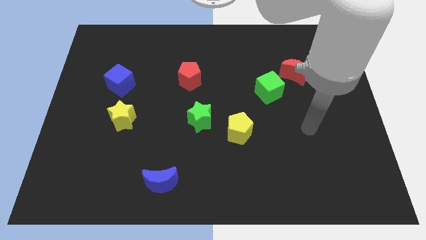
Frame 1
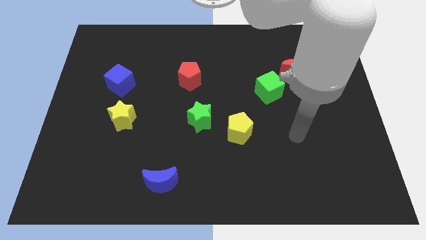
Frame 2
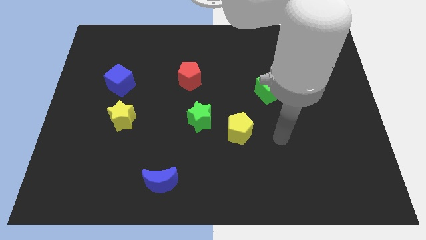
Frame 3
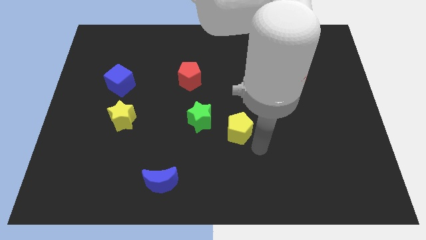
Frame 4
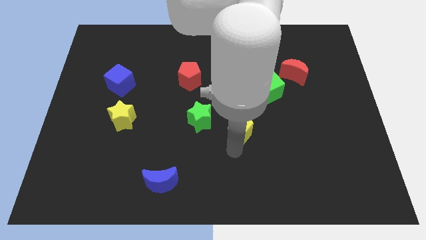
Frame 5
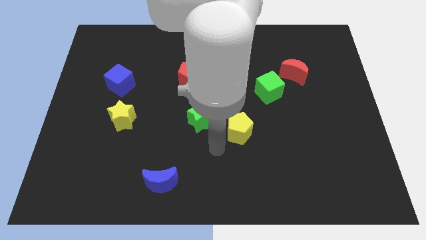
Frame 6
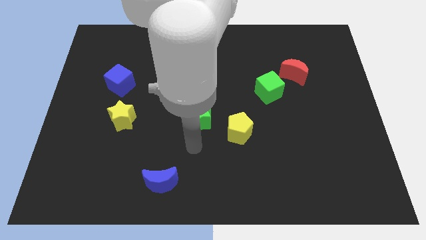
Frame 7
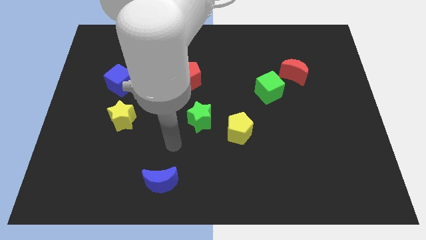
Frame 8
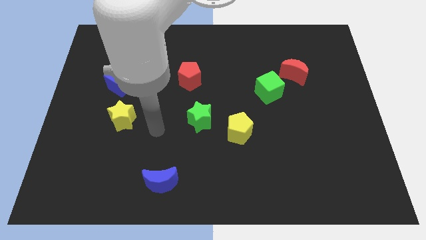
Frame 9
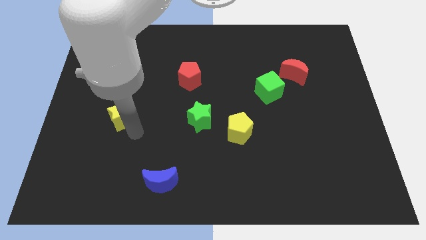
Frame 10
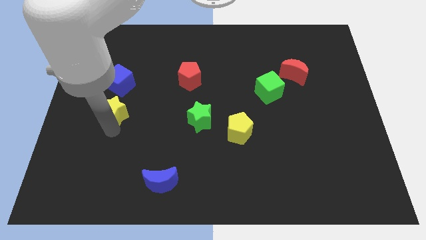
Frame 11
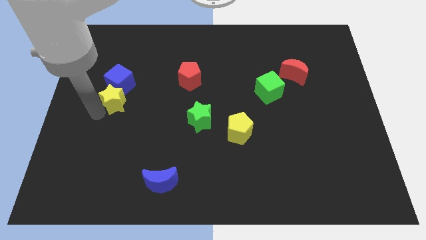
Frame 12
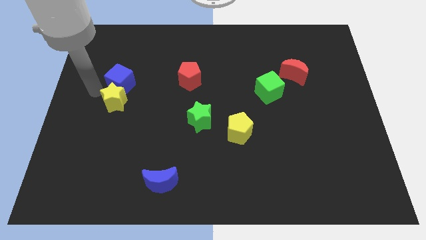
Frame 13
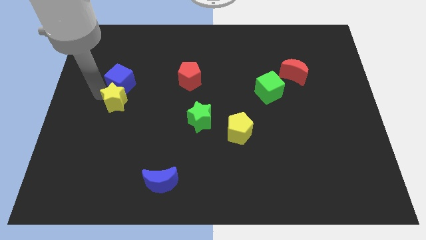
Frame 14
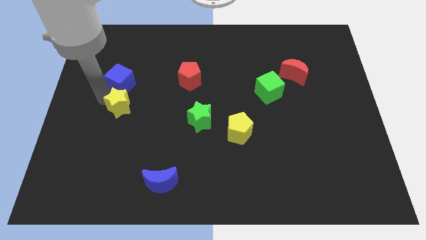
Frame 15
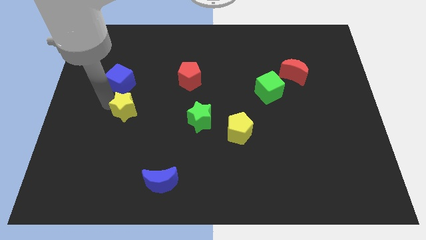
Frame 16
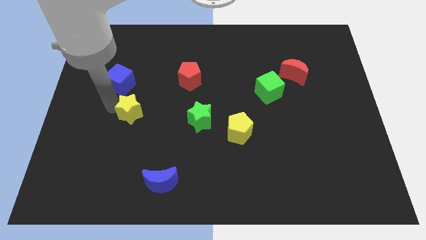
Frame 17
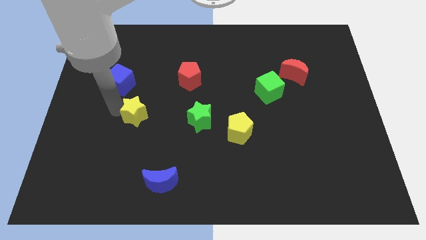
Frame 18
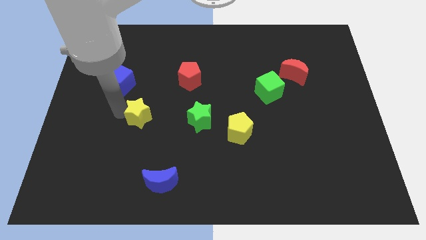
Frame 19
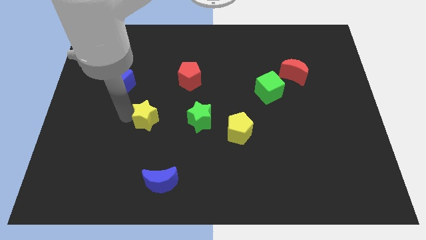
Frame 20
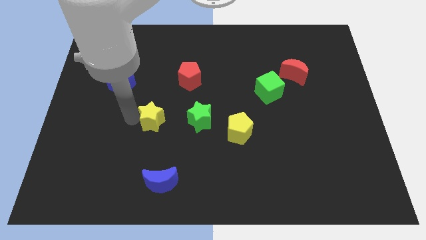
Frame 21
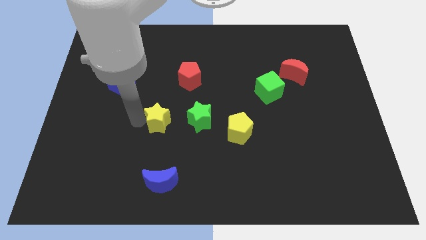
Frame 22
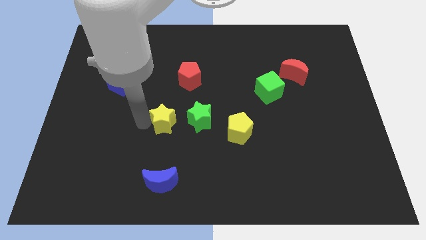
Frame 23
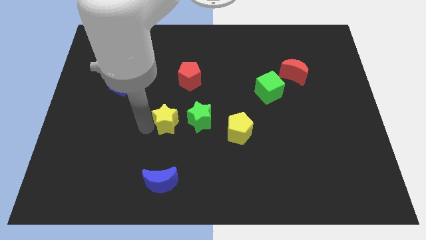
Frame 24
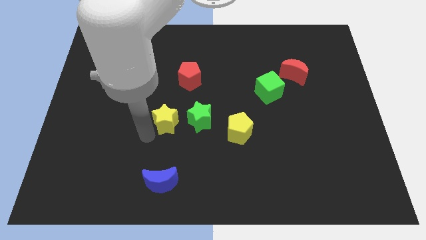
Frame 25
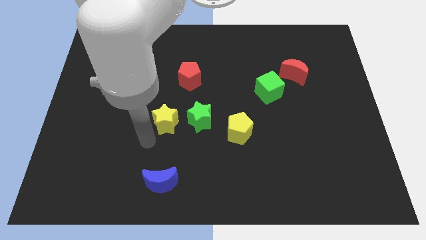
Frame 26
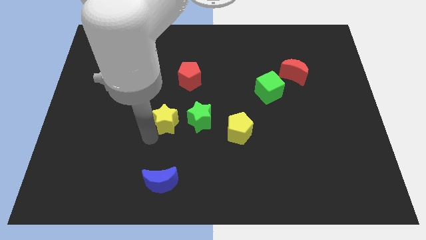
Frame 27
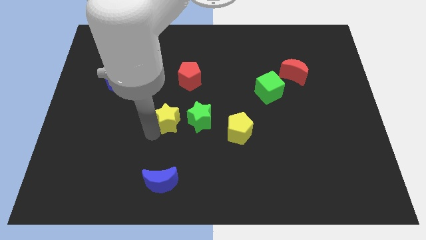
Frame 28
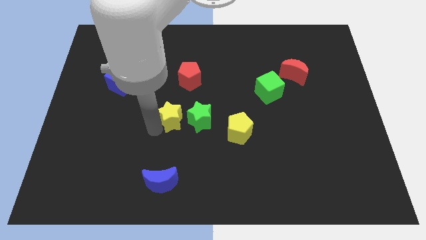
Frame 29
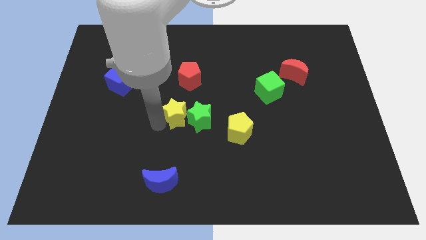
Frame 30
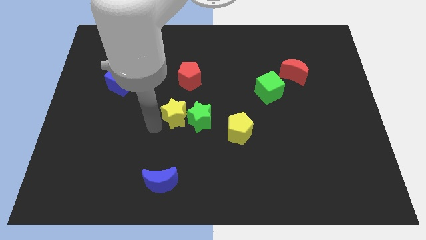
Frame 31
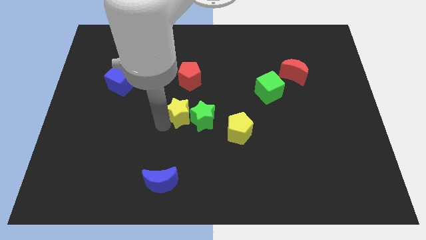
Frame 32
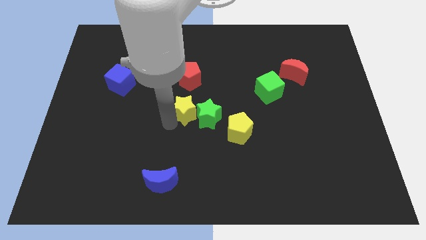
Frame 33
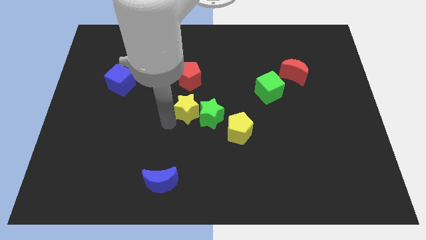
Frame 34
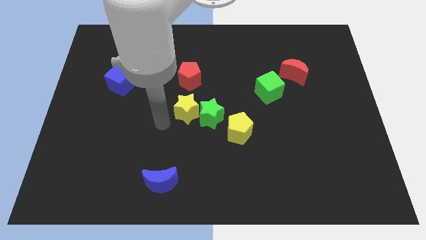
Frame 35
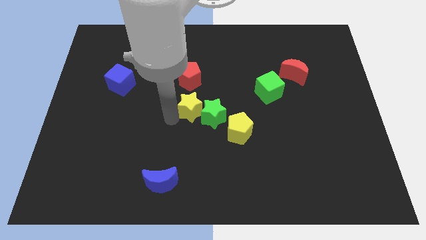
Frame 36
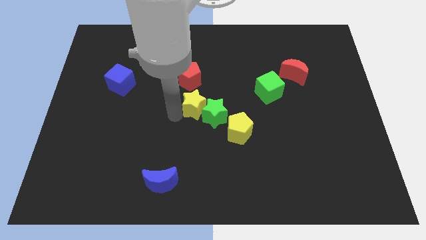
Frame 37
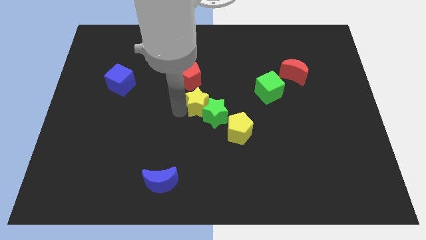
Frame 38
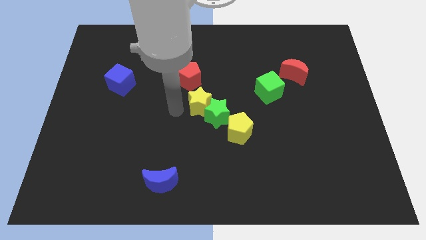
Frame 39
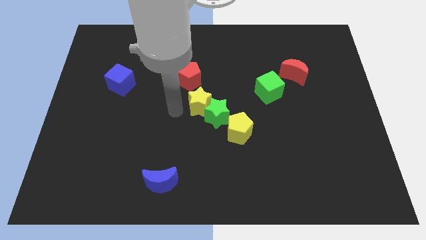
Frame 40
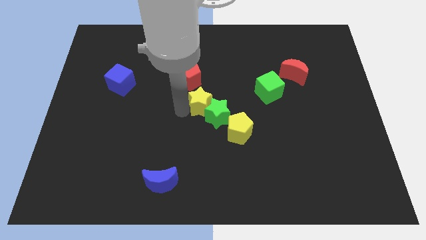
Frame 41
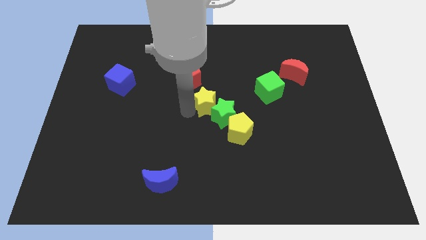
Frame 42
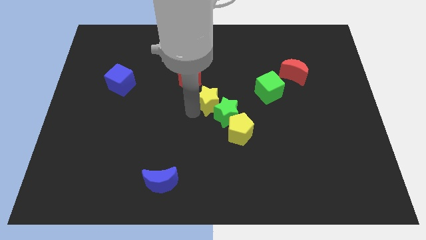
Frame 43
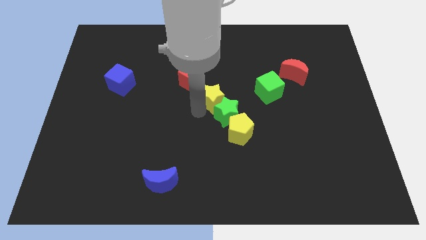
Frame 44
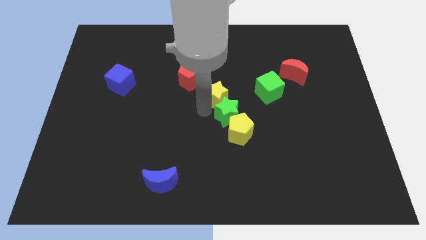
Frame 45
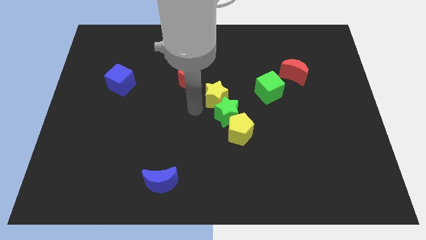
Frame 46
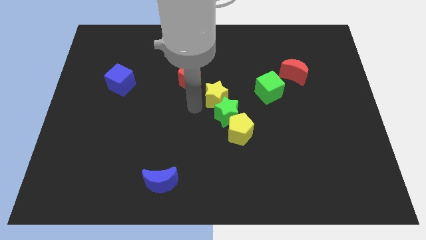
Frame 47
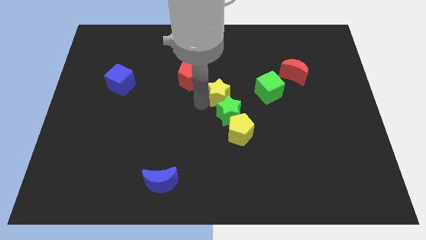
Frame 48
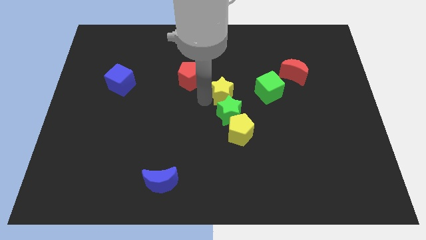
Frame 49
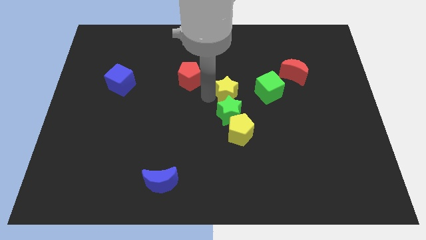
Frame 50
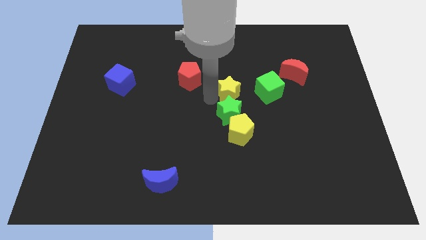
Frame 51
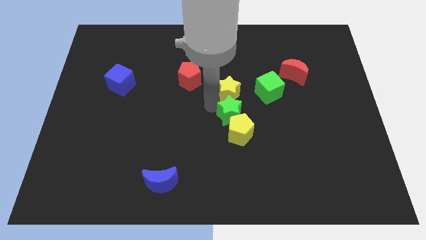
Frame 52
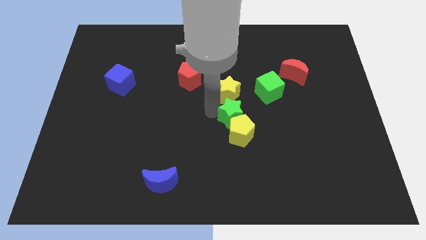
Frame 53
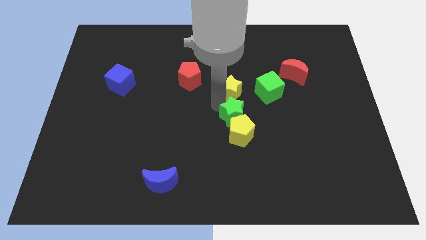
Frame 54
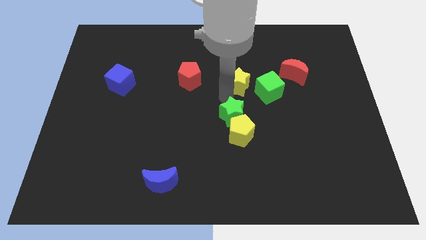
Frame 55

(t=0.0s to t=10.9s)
move the yellow star to the top left side of the green cube

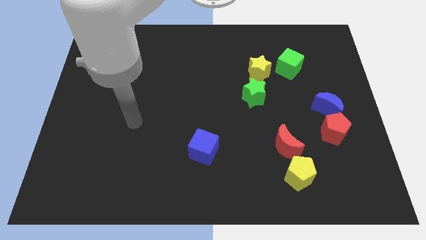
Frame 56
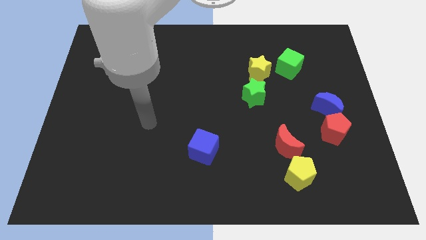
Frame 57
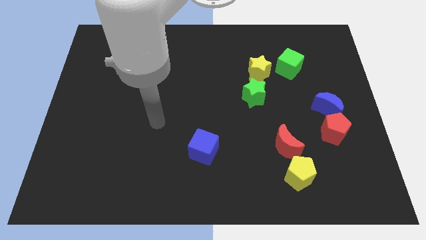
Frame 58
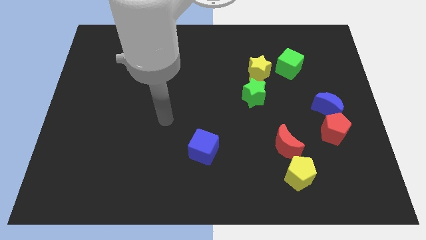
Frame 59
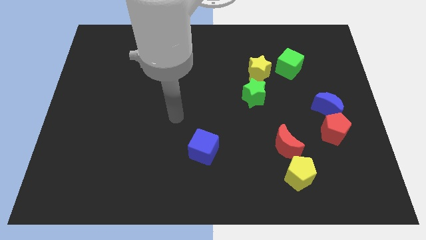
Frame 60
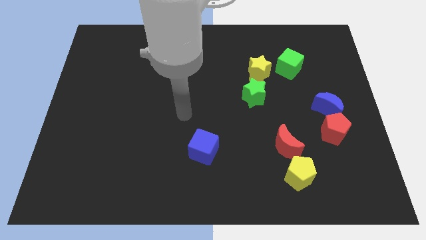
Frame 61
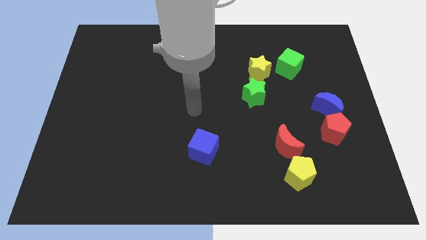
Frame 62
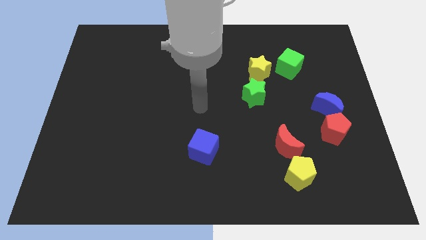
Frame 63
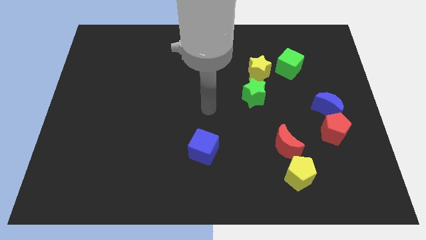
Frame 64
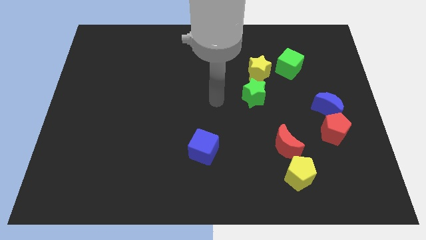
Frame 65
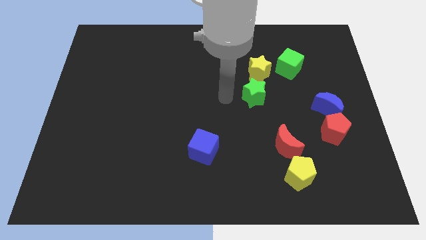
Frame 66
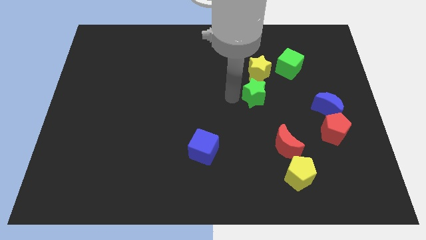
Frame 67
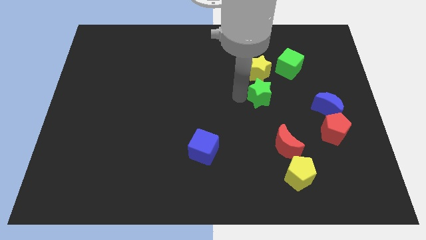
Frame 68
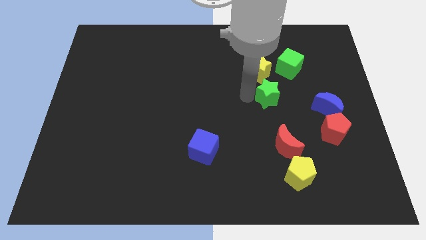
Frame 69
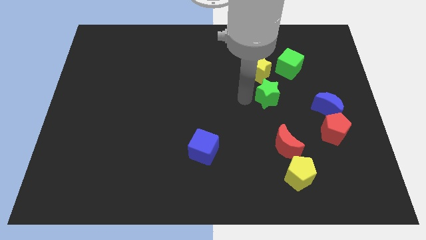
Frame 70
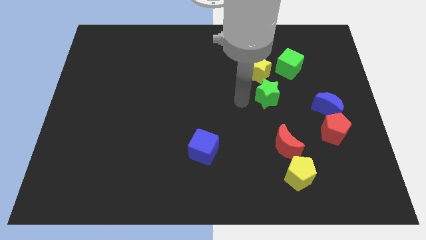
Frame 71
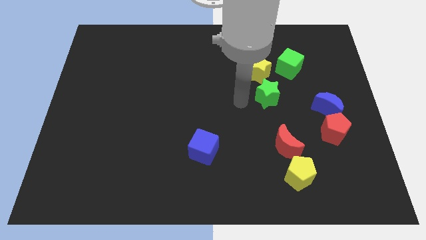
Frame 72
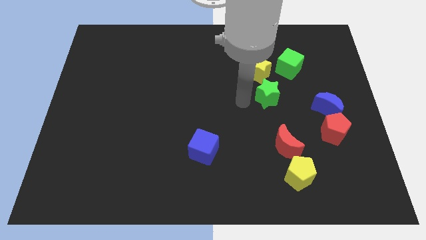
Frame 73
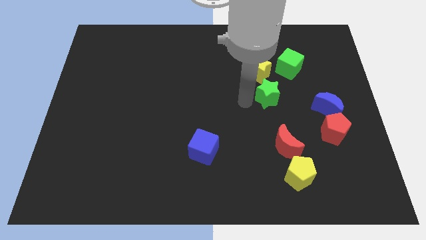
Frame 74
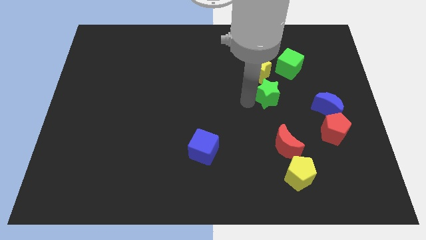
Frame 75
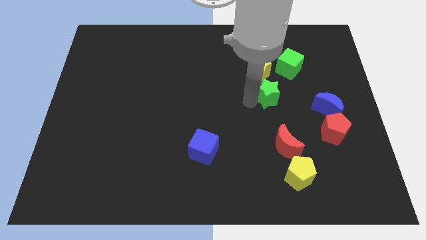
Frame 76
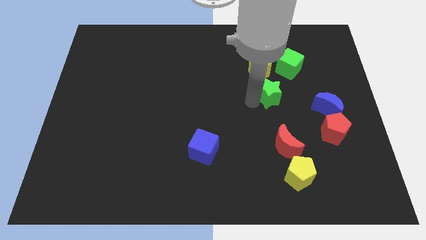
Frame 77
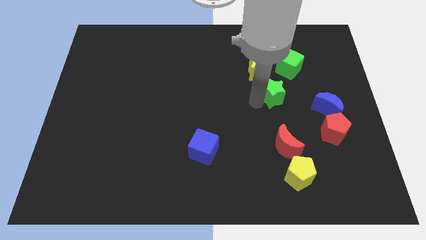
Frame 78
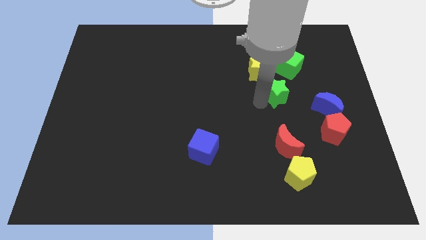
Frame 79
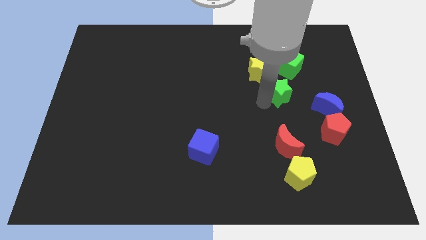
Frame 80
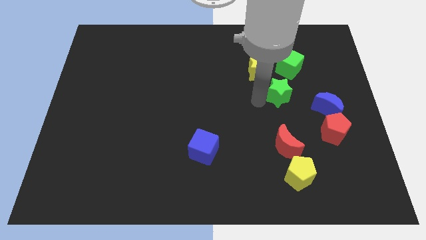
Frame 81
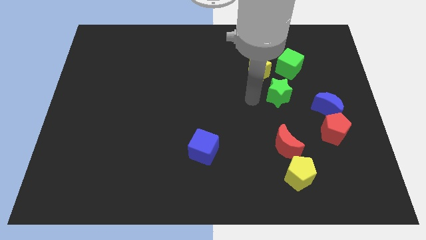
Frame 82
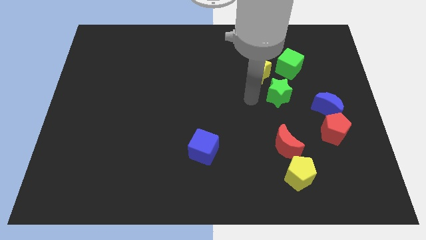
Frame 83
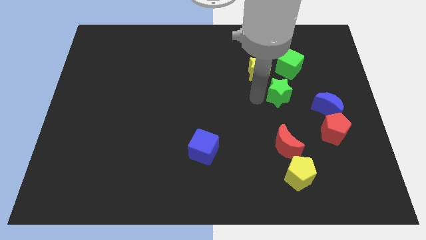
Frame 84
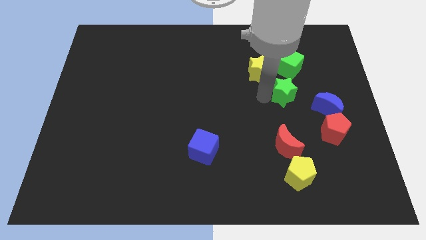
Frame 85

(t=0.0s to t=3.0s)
slide the green star diagonally up and to the left of the blue moon
